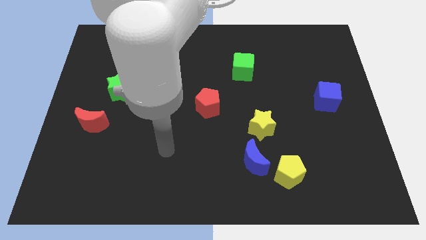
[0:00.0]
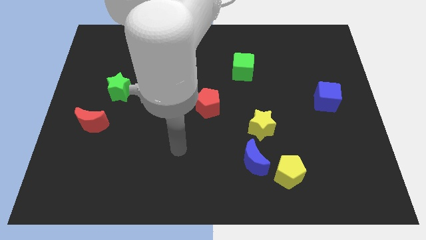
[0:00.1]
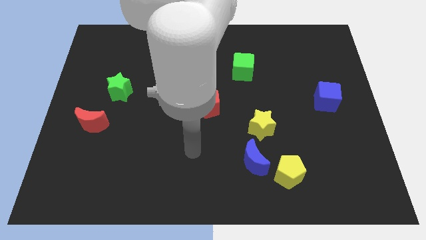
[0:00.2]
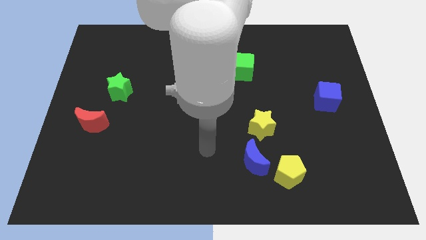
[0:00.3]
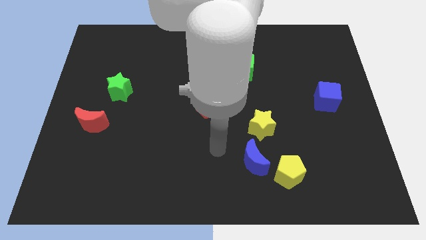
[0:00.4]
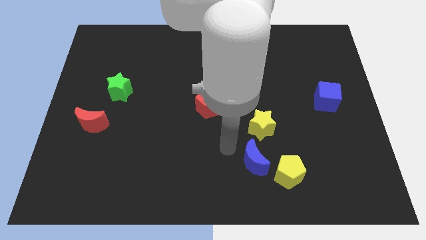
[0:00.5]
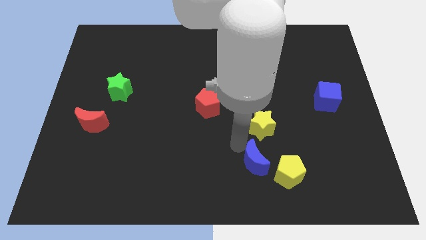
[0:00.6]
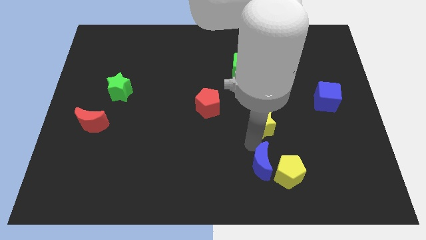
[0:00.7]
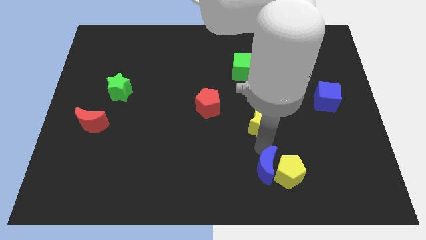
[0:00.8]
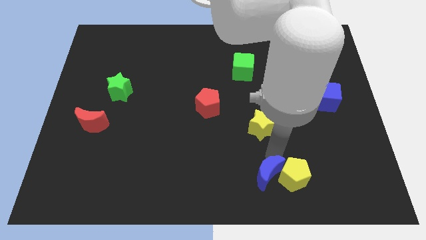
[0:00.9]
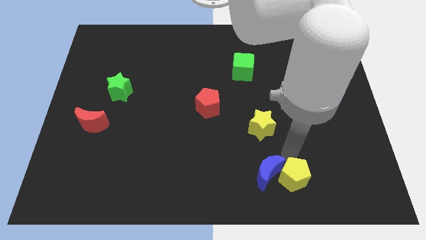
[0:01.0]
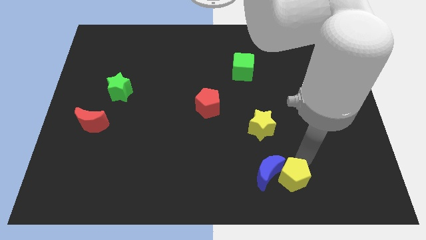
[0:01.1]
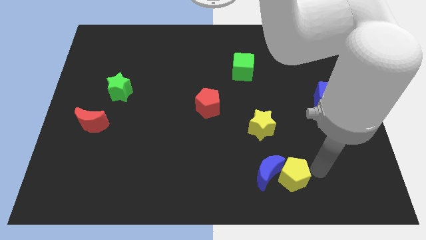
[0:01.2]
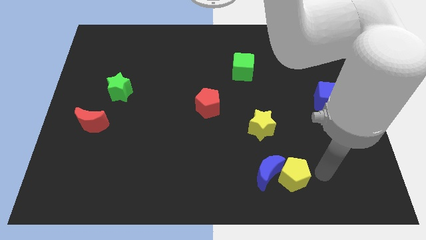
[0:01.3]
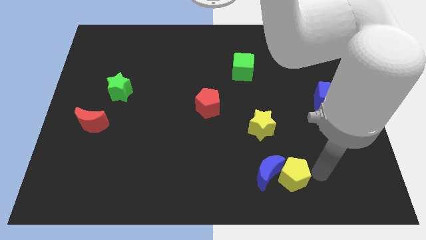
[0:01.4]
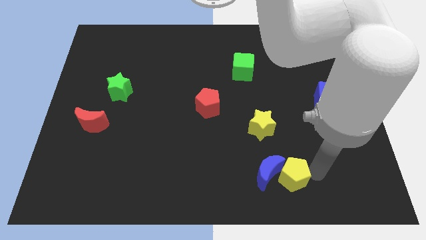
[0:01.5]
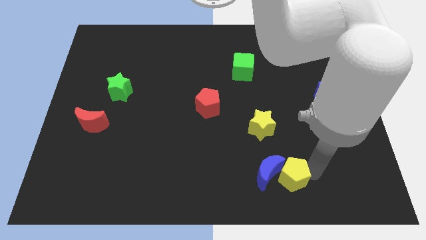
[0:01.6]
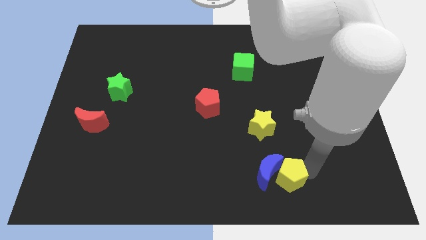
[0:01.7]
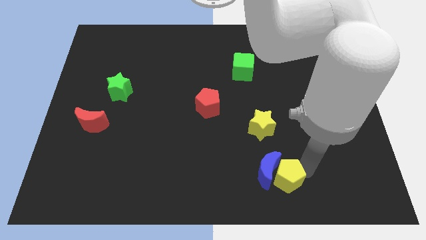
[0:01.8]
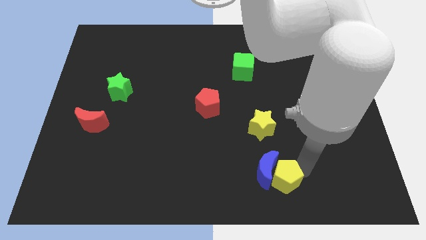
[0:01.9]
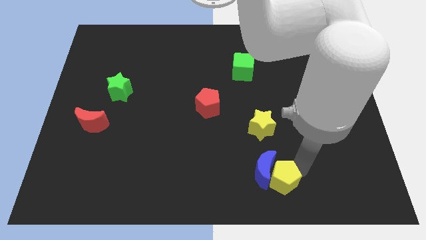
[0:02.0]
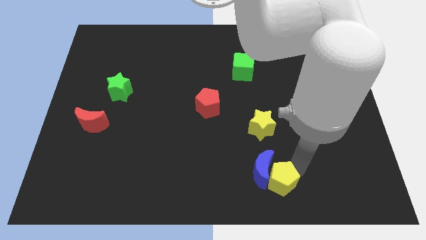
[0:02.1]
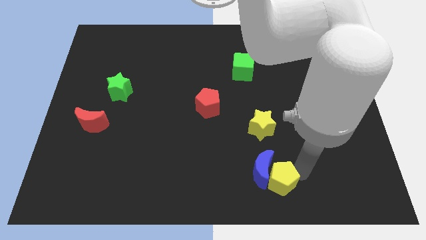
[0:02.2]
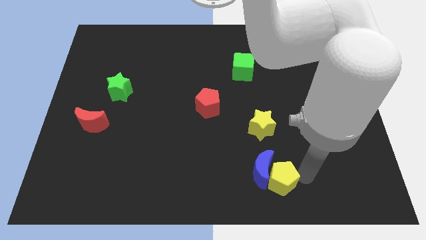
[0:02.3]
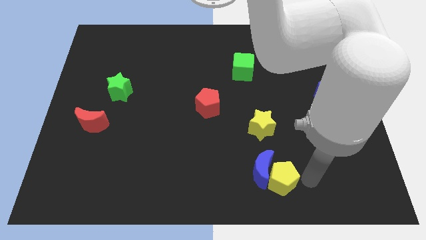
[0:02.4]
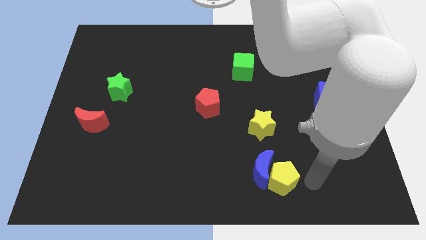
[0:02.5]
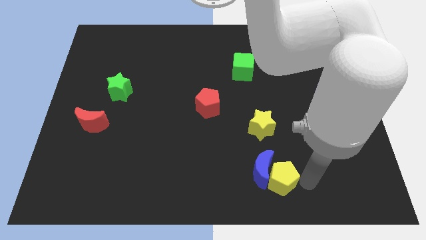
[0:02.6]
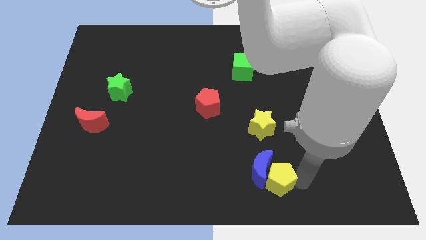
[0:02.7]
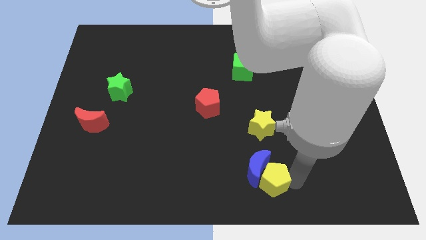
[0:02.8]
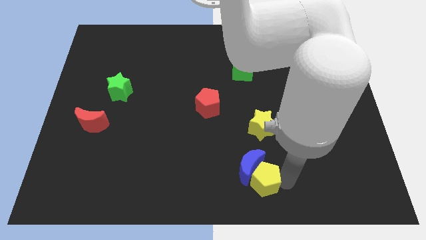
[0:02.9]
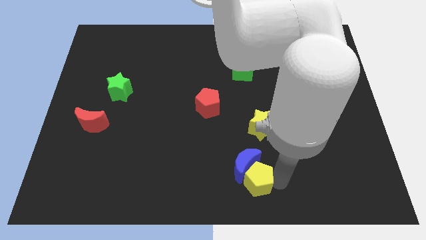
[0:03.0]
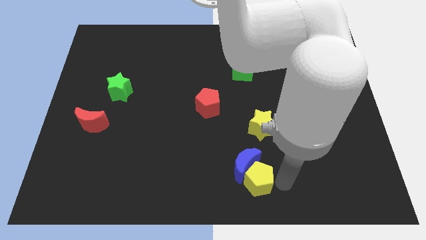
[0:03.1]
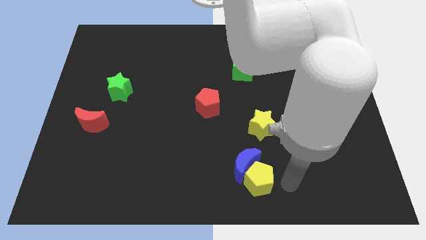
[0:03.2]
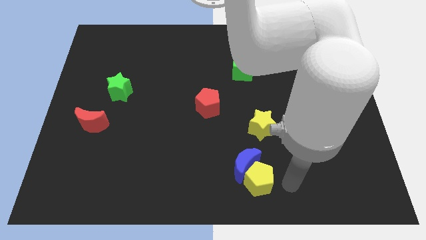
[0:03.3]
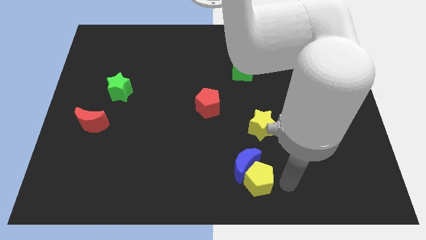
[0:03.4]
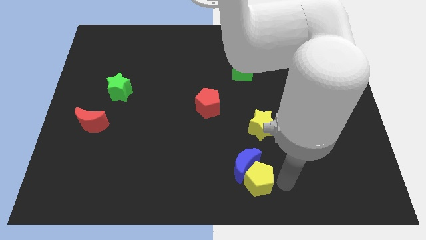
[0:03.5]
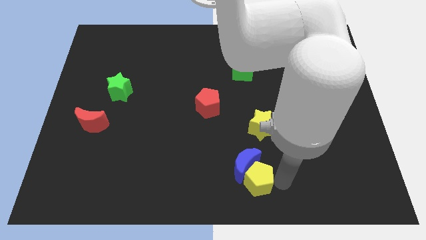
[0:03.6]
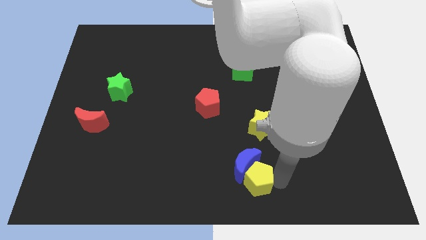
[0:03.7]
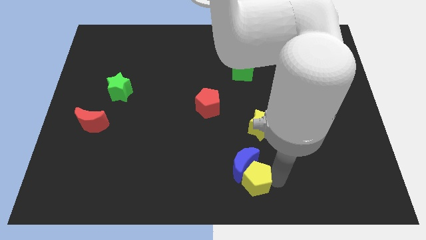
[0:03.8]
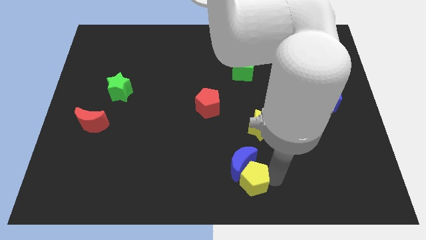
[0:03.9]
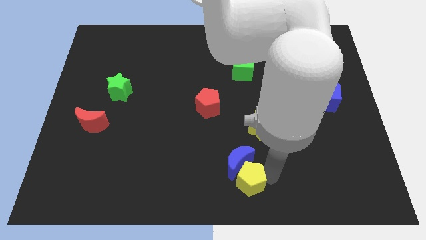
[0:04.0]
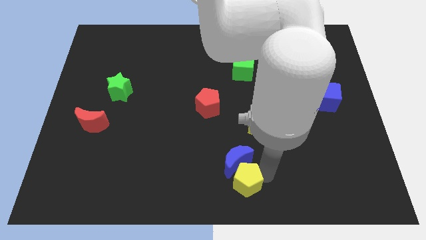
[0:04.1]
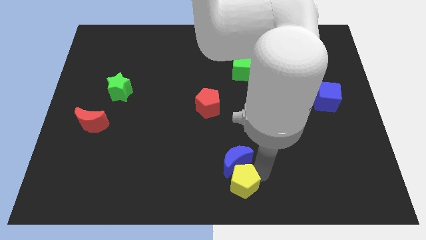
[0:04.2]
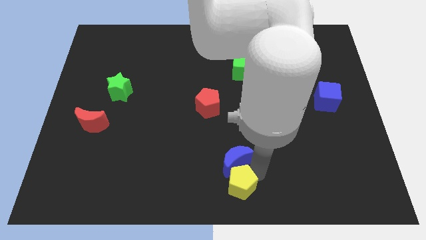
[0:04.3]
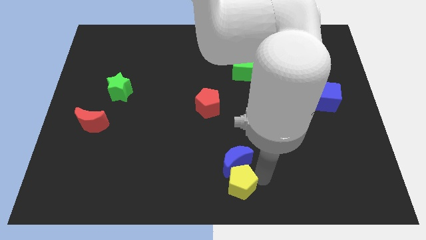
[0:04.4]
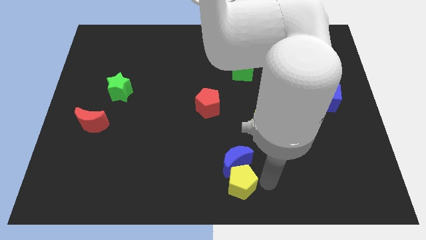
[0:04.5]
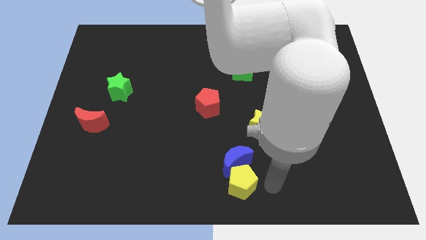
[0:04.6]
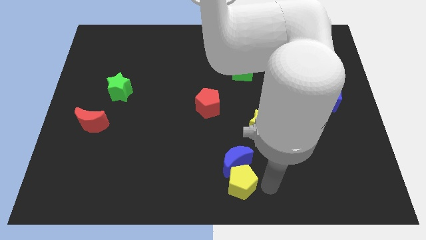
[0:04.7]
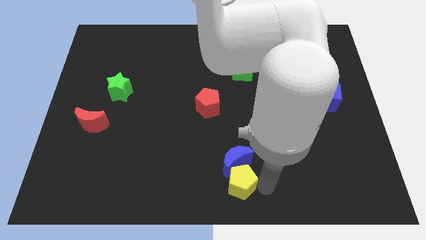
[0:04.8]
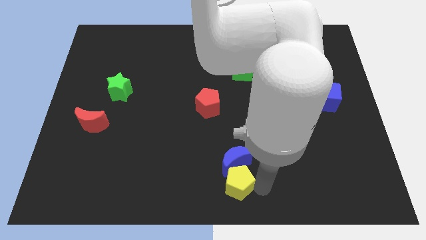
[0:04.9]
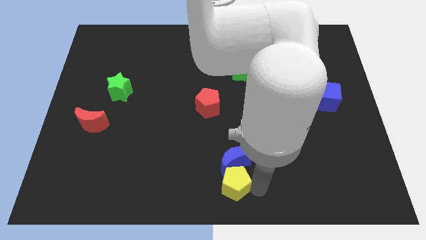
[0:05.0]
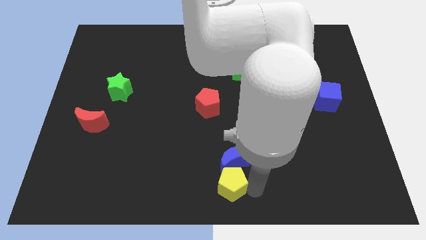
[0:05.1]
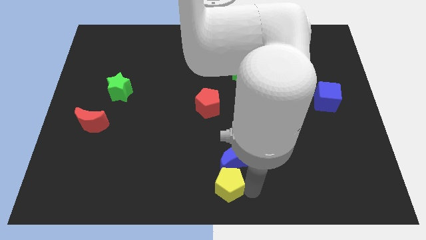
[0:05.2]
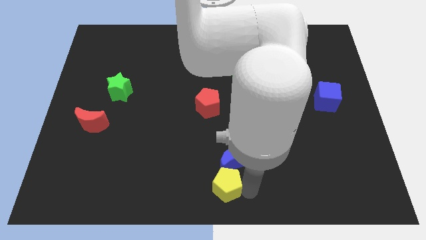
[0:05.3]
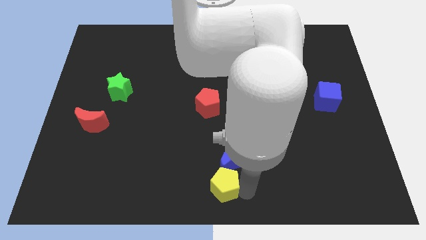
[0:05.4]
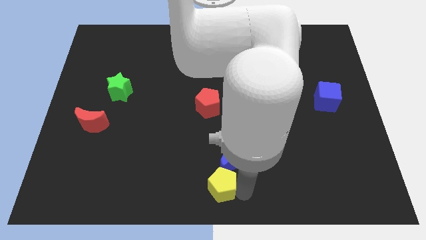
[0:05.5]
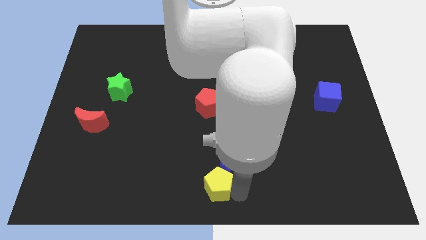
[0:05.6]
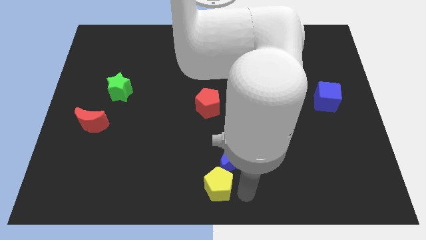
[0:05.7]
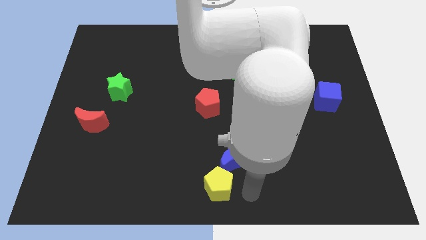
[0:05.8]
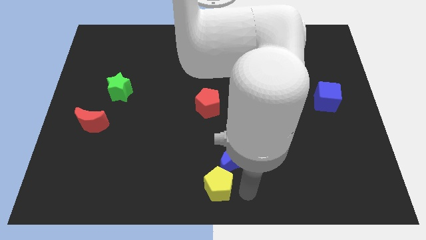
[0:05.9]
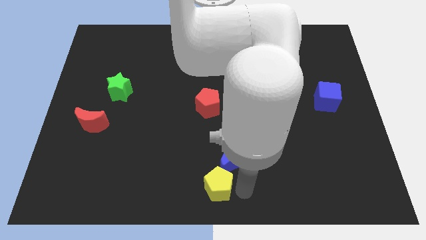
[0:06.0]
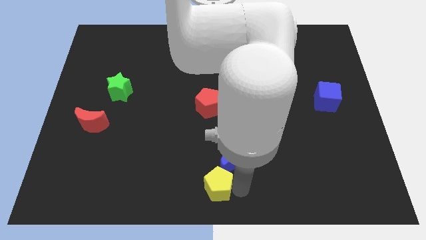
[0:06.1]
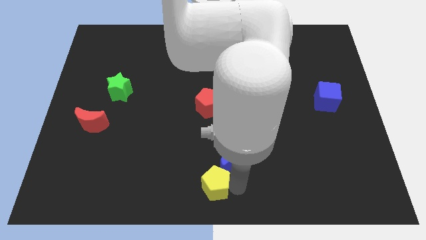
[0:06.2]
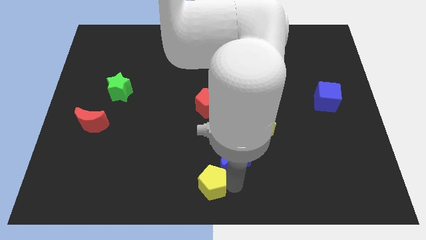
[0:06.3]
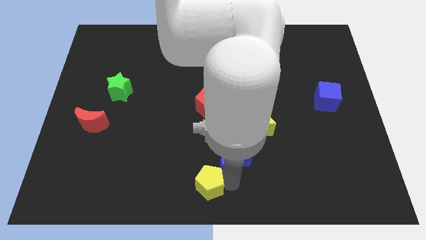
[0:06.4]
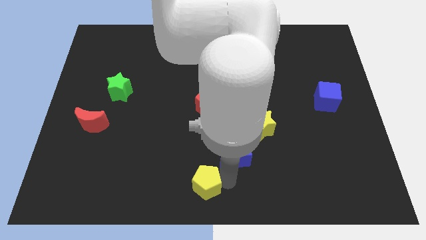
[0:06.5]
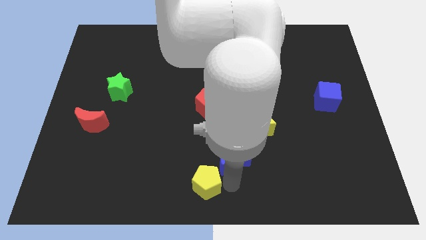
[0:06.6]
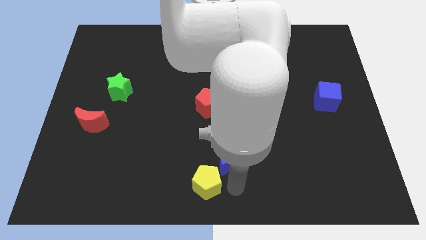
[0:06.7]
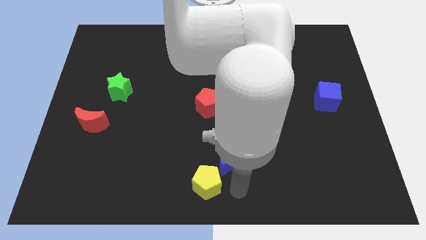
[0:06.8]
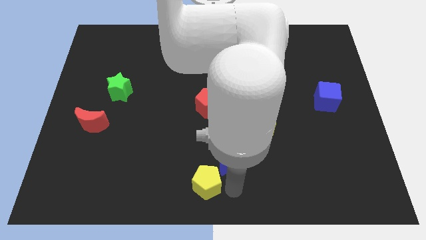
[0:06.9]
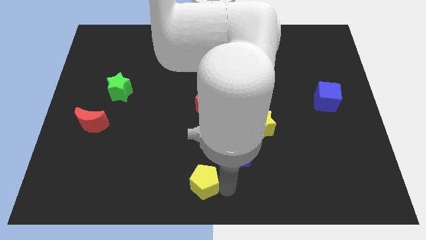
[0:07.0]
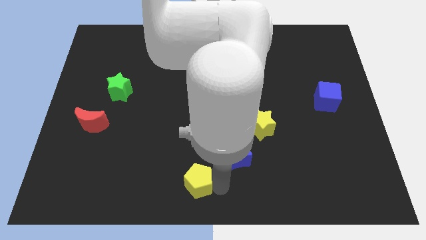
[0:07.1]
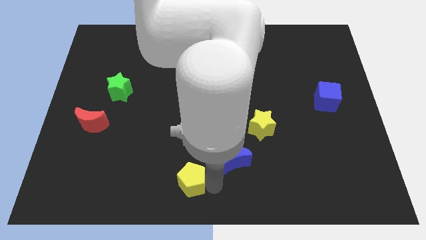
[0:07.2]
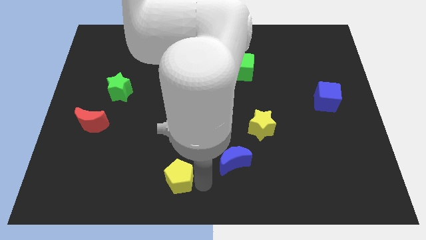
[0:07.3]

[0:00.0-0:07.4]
push the yellow pentagon left

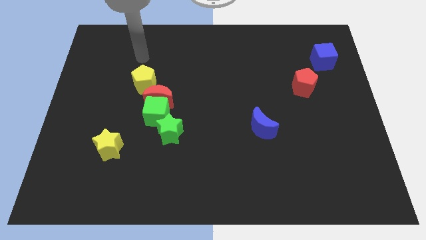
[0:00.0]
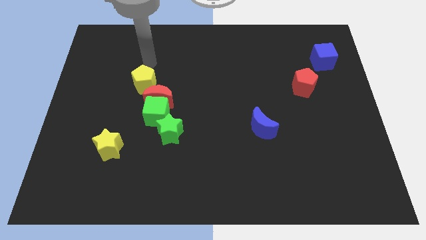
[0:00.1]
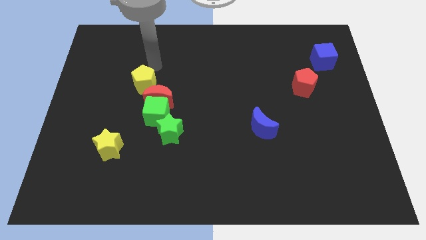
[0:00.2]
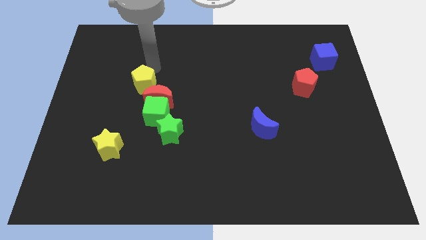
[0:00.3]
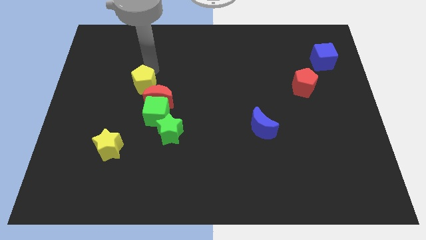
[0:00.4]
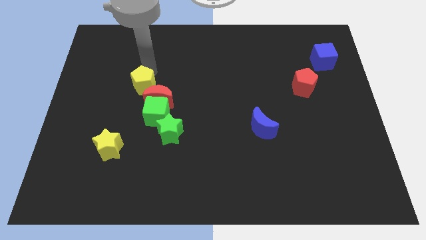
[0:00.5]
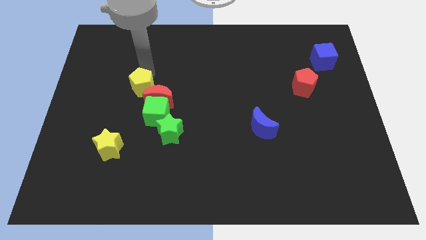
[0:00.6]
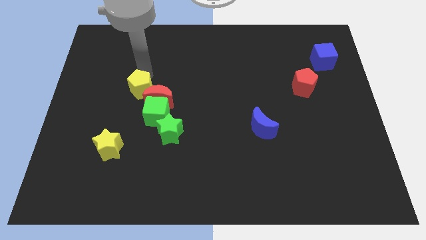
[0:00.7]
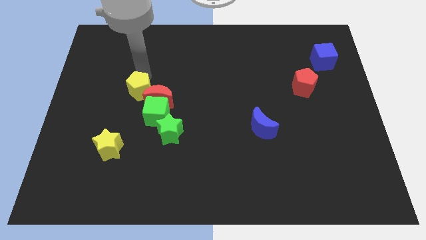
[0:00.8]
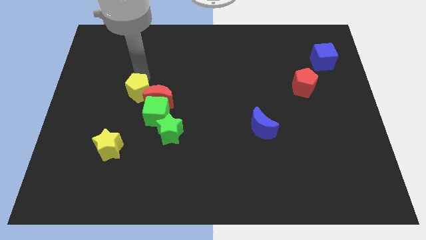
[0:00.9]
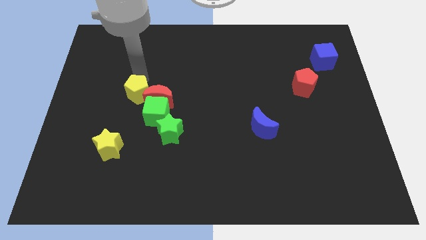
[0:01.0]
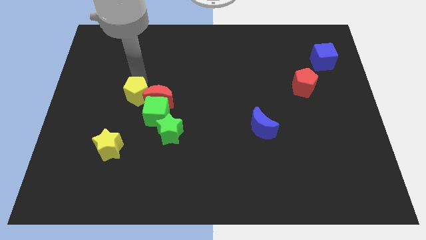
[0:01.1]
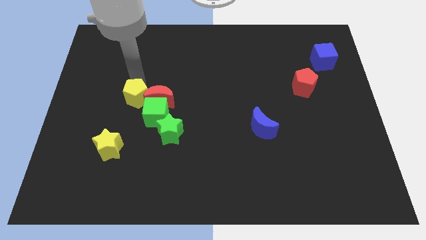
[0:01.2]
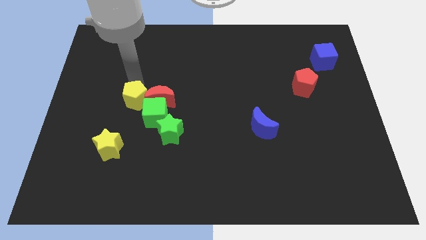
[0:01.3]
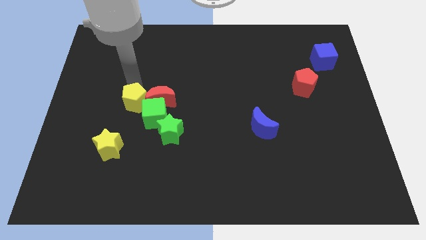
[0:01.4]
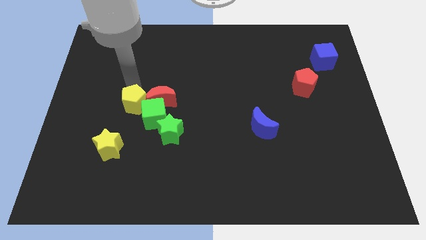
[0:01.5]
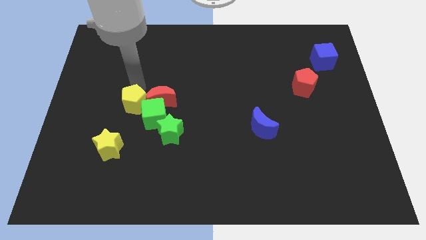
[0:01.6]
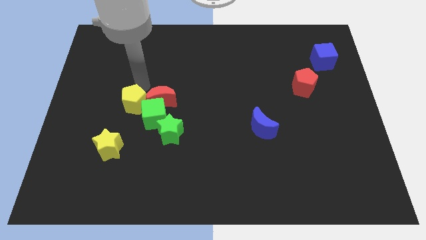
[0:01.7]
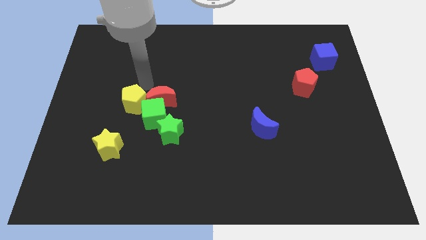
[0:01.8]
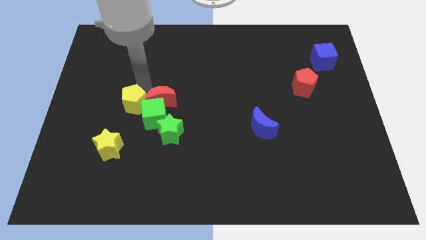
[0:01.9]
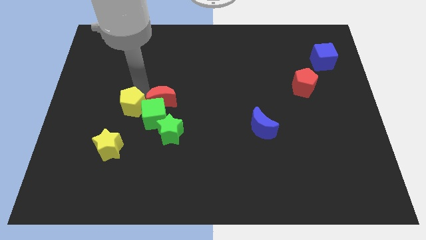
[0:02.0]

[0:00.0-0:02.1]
slide the yellow pentagon down a little
